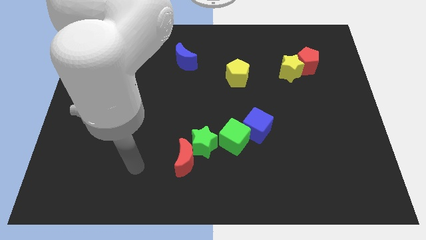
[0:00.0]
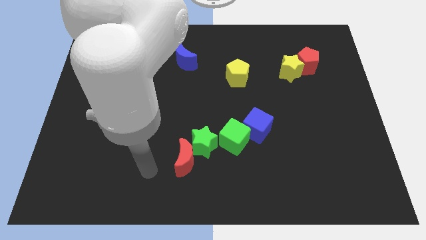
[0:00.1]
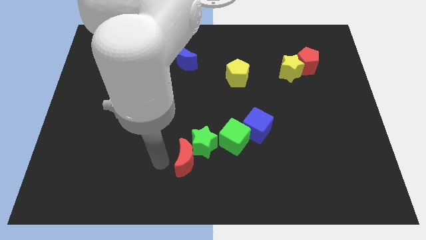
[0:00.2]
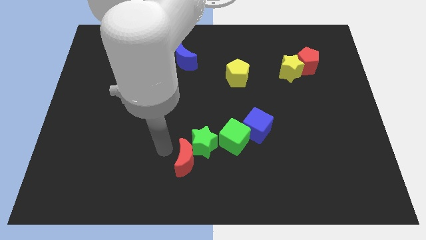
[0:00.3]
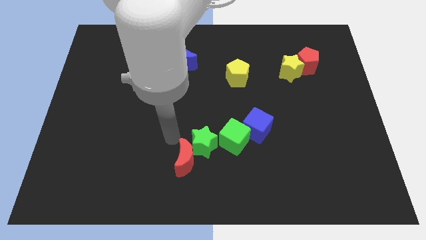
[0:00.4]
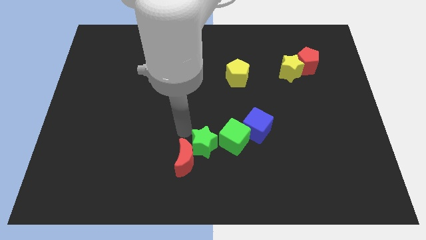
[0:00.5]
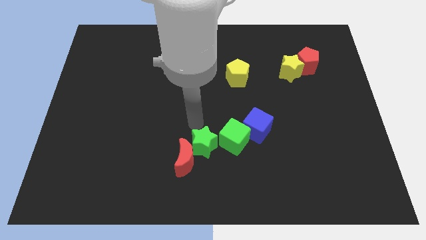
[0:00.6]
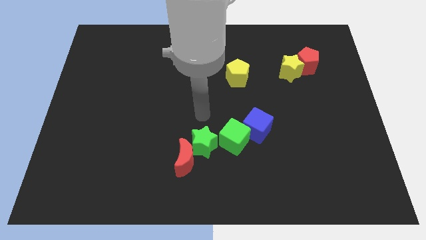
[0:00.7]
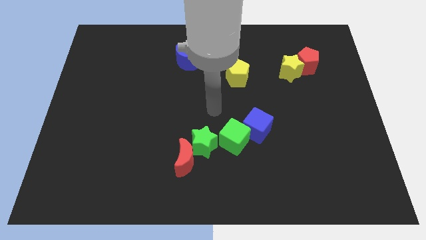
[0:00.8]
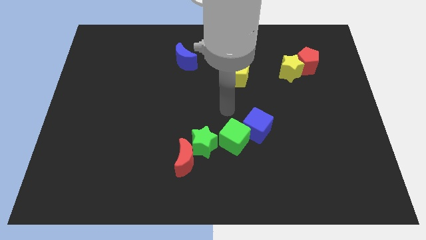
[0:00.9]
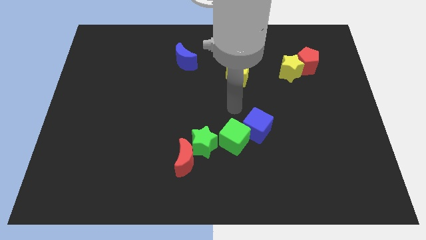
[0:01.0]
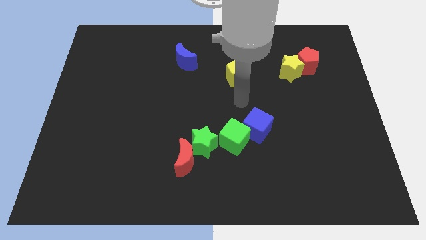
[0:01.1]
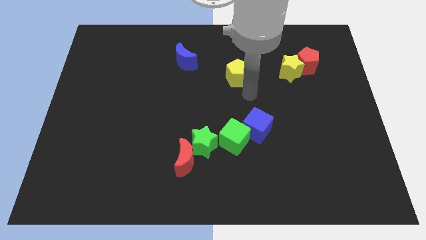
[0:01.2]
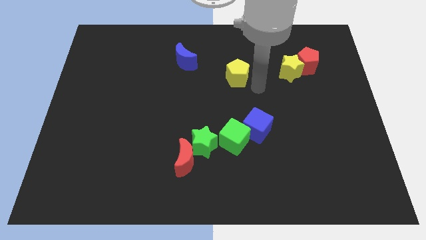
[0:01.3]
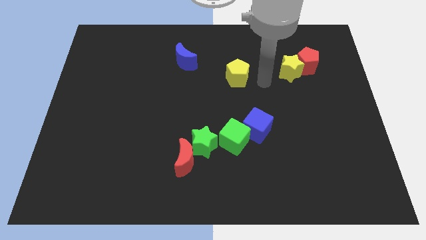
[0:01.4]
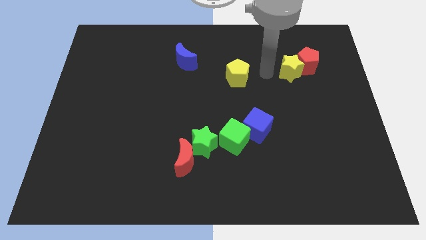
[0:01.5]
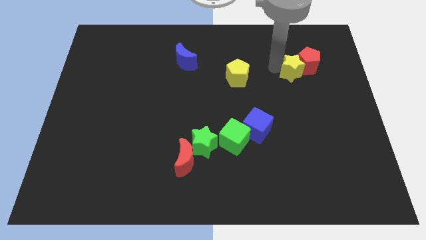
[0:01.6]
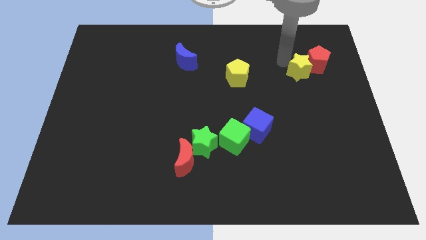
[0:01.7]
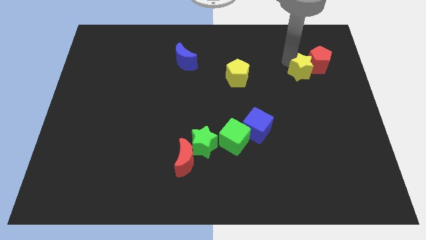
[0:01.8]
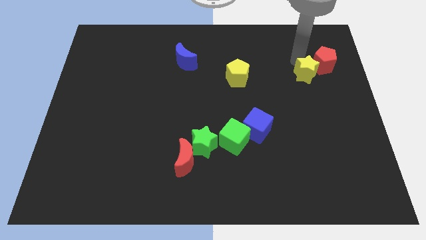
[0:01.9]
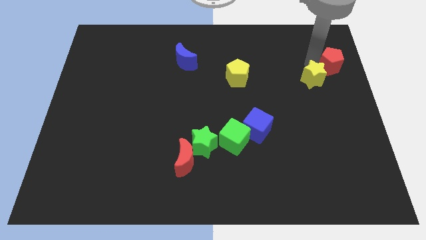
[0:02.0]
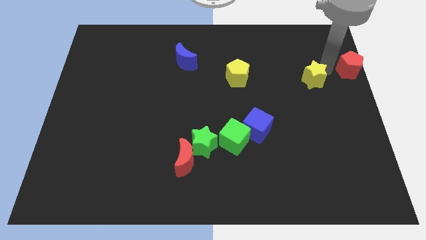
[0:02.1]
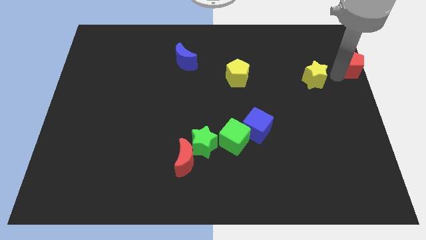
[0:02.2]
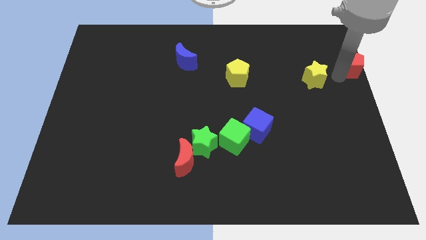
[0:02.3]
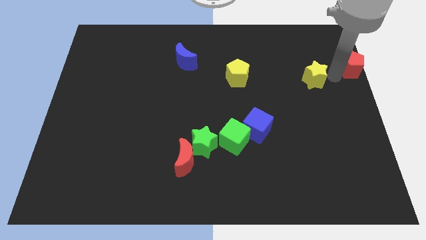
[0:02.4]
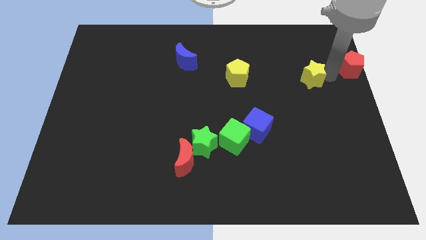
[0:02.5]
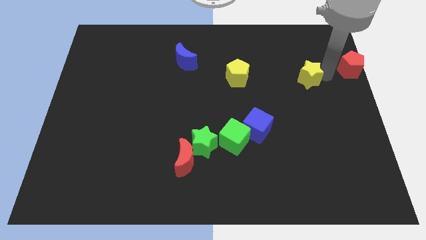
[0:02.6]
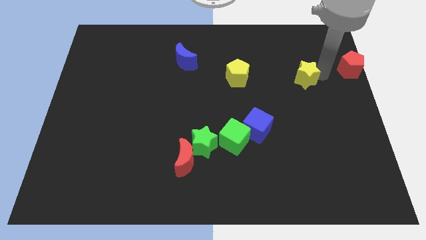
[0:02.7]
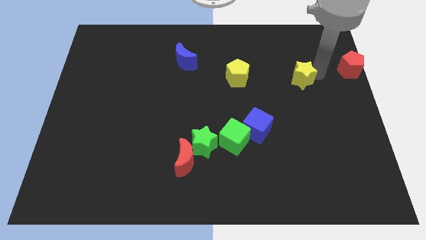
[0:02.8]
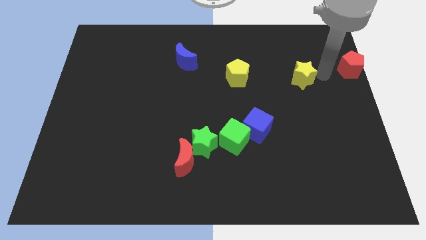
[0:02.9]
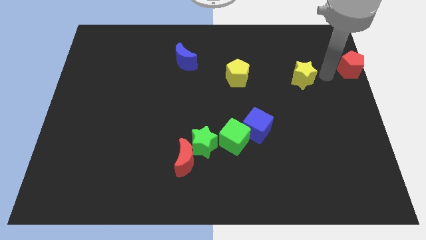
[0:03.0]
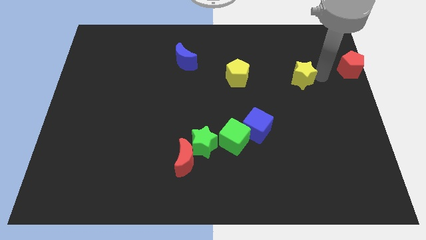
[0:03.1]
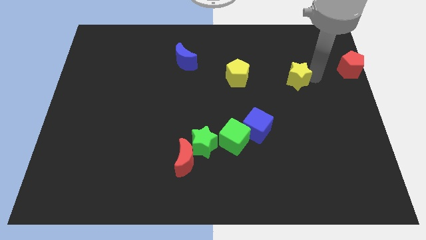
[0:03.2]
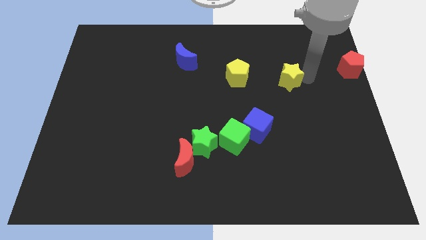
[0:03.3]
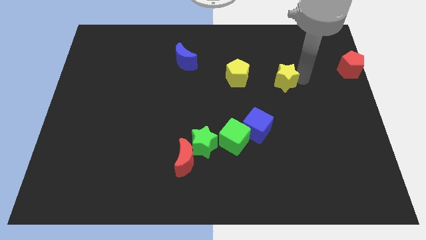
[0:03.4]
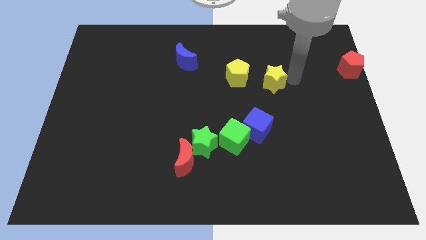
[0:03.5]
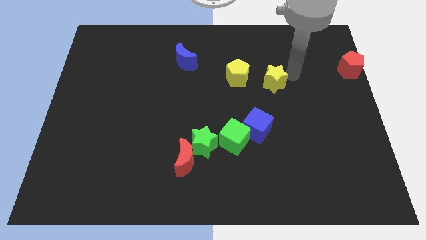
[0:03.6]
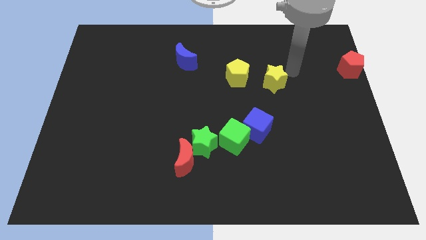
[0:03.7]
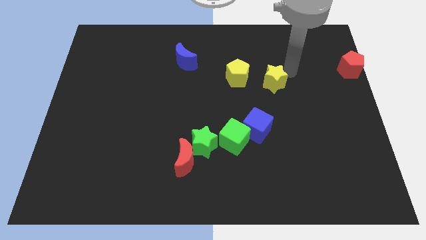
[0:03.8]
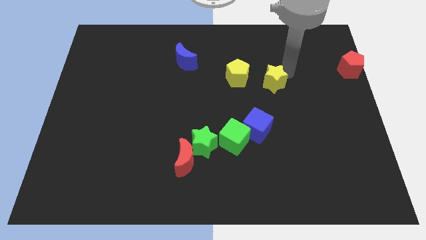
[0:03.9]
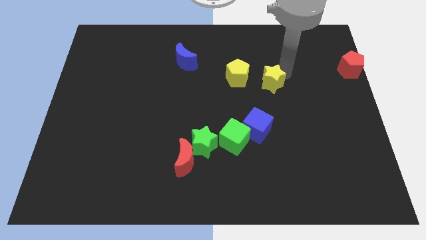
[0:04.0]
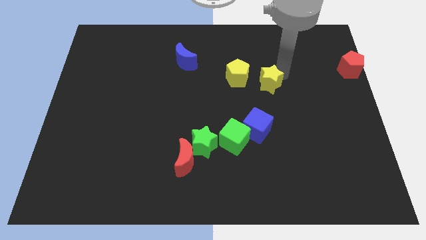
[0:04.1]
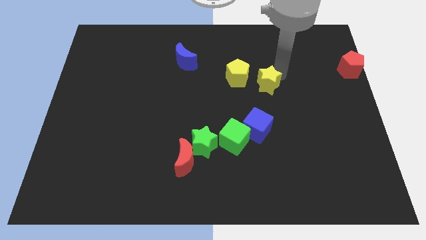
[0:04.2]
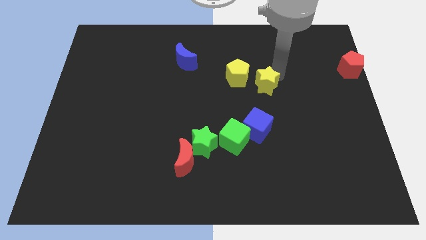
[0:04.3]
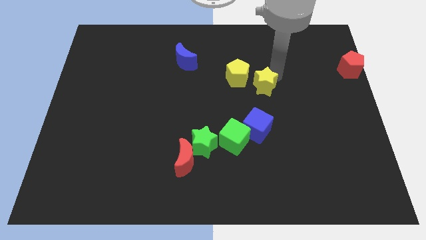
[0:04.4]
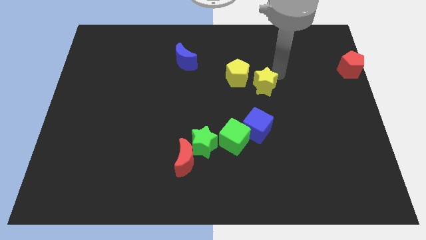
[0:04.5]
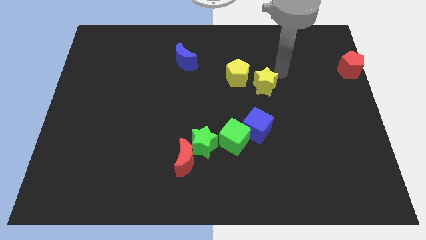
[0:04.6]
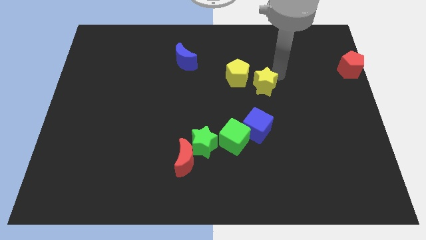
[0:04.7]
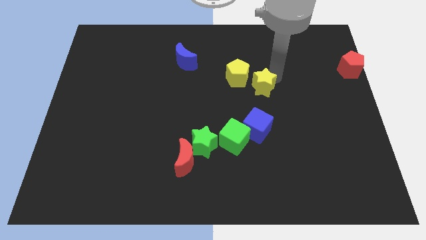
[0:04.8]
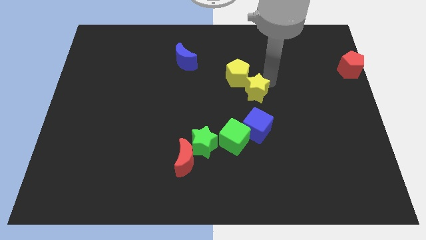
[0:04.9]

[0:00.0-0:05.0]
move the yellow star to the bottom of the yellow pentagon

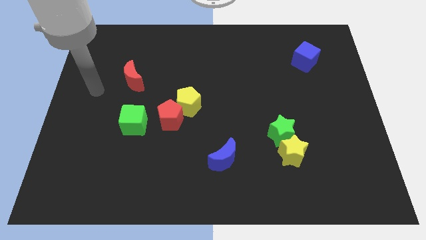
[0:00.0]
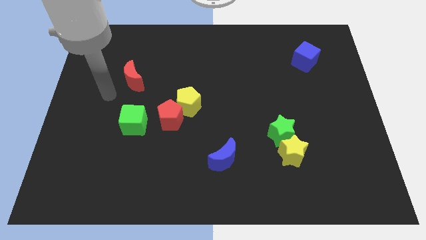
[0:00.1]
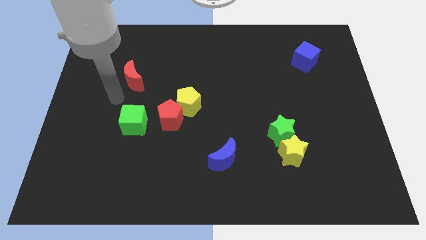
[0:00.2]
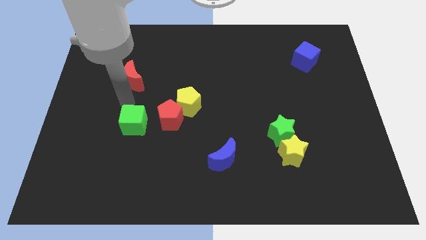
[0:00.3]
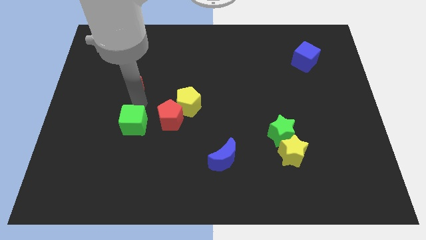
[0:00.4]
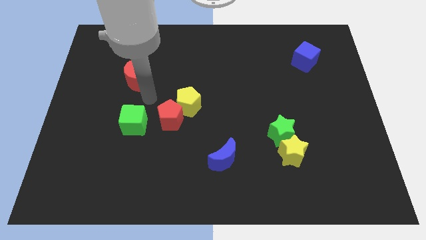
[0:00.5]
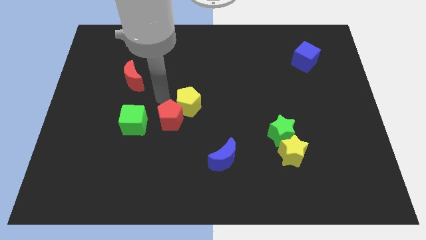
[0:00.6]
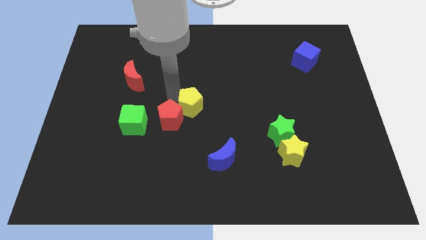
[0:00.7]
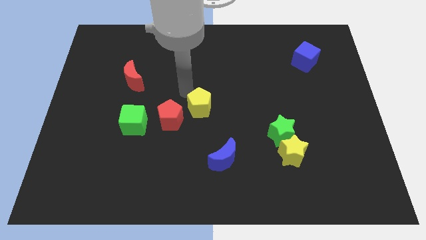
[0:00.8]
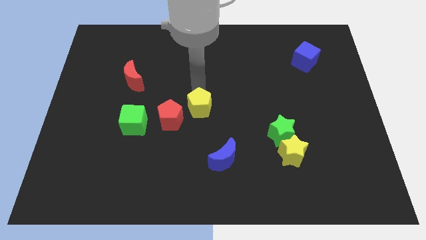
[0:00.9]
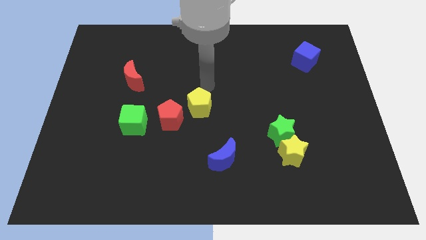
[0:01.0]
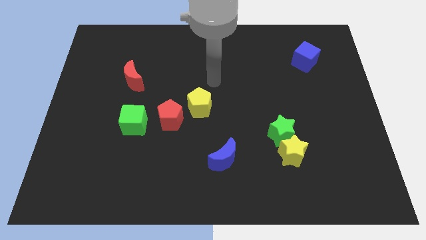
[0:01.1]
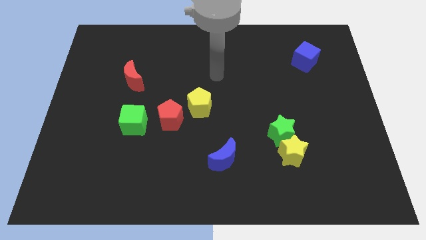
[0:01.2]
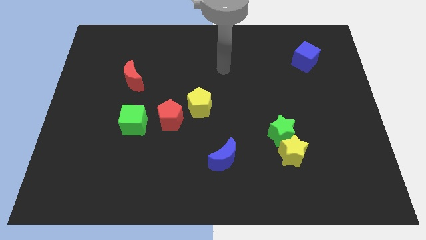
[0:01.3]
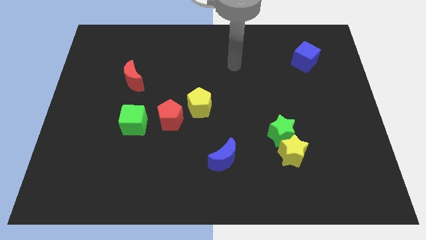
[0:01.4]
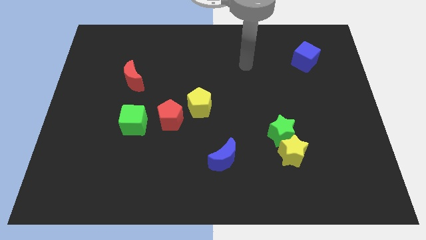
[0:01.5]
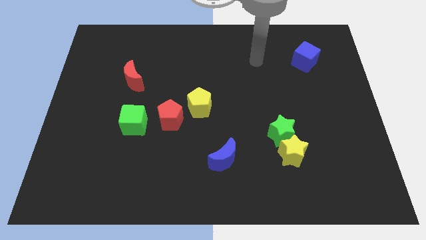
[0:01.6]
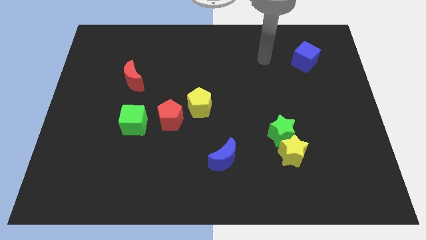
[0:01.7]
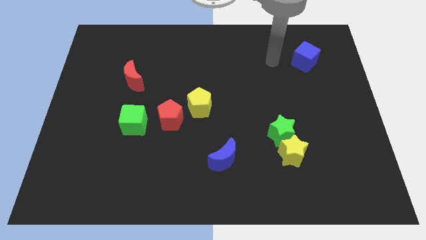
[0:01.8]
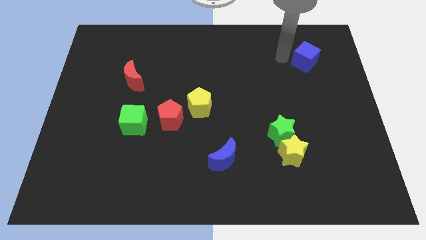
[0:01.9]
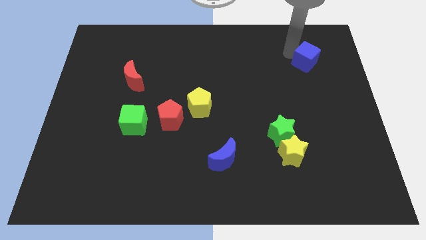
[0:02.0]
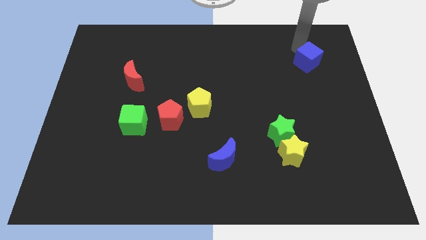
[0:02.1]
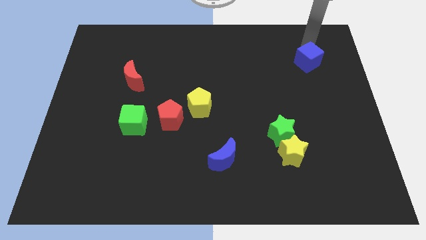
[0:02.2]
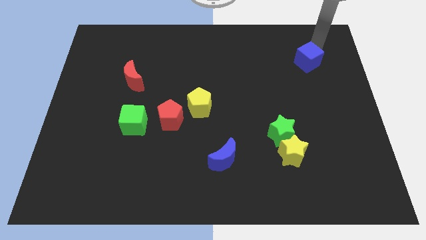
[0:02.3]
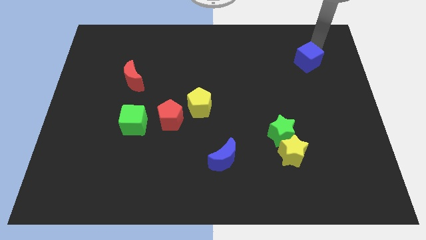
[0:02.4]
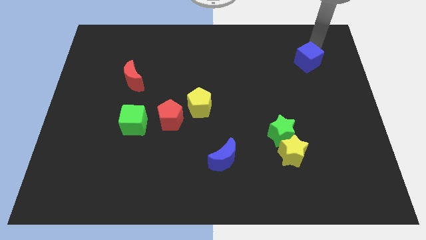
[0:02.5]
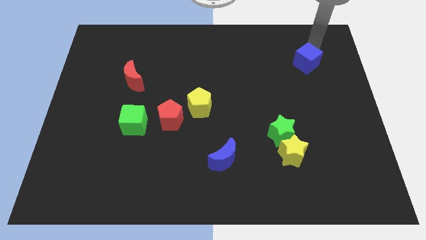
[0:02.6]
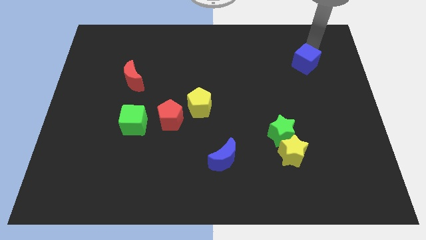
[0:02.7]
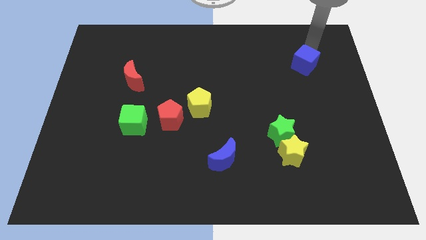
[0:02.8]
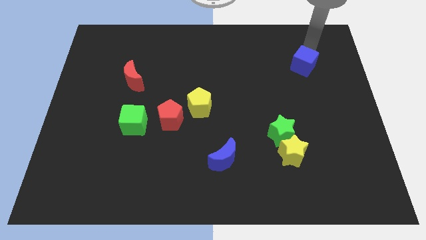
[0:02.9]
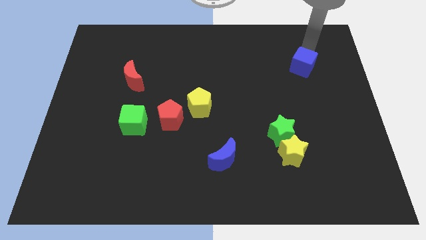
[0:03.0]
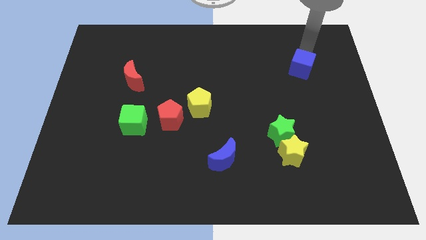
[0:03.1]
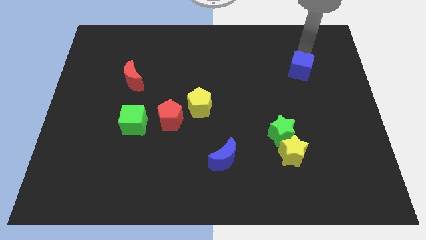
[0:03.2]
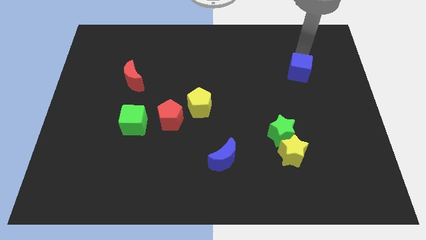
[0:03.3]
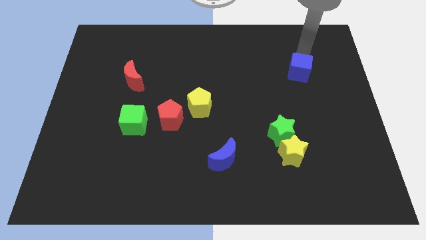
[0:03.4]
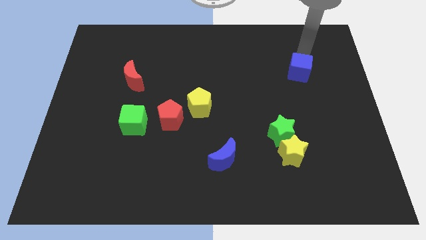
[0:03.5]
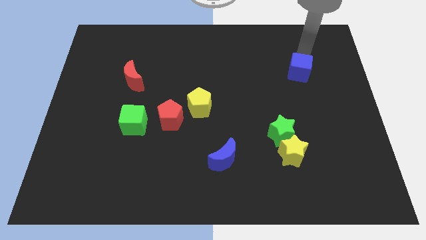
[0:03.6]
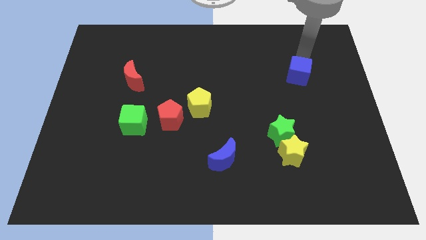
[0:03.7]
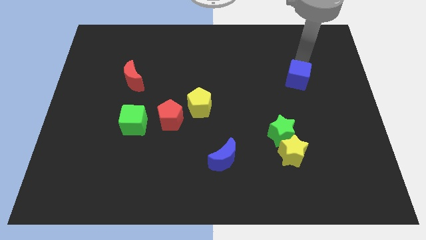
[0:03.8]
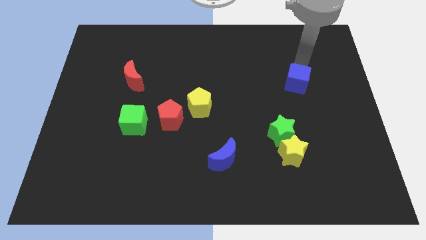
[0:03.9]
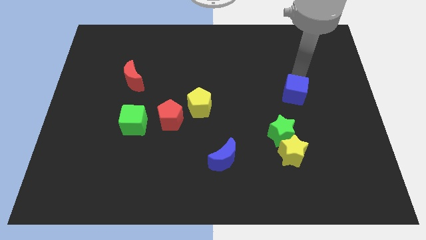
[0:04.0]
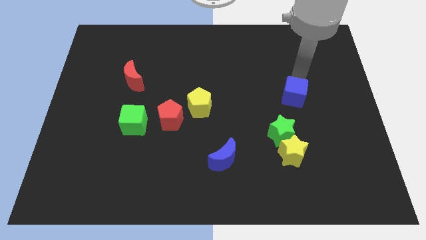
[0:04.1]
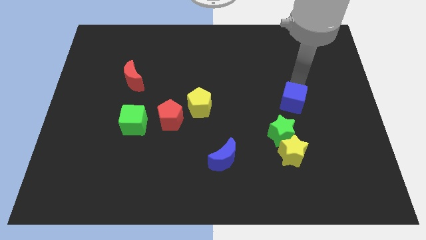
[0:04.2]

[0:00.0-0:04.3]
push the blue cube to the top of the yellow star
